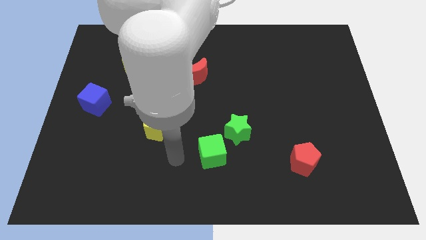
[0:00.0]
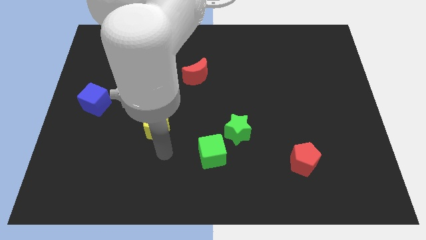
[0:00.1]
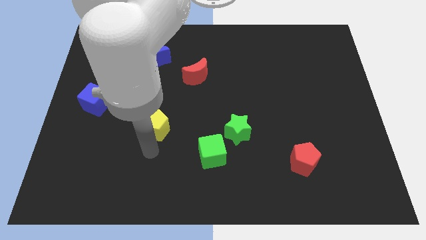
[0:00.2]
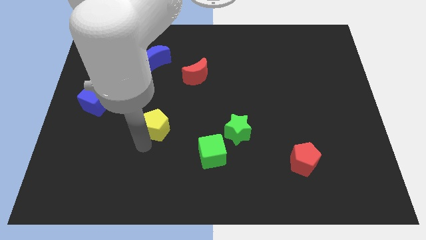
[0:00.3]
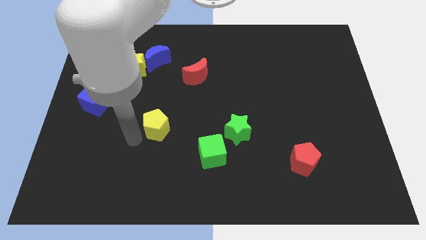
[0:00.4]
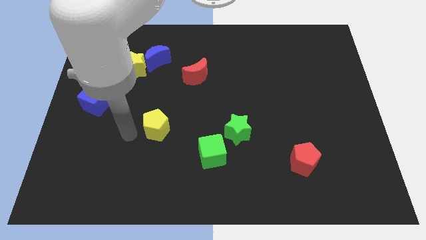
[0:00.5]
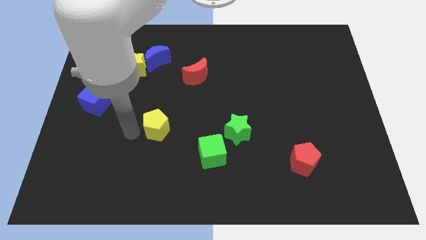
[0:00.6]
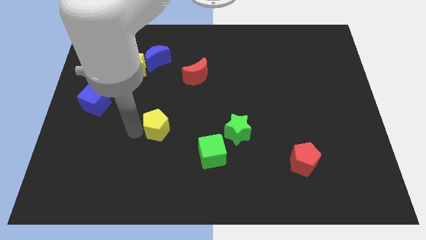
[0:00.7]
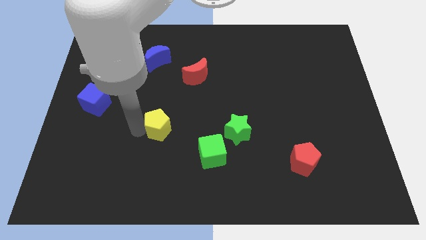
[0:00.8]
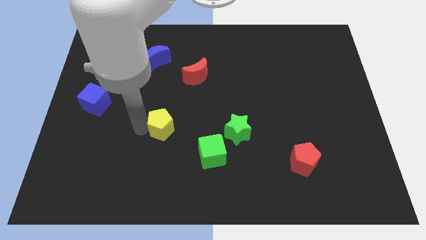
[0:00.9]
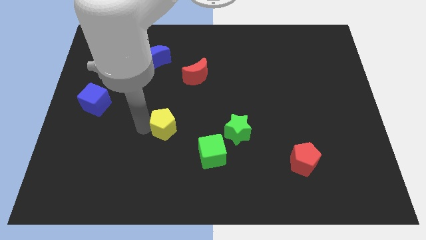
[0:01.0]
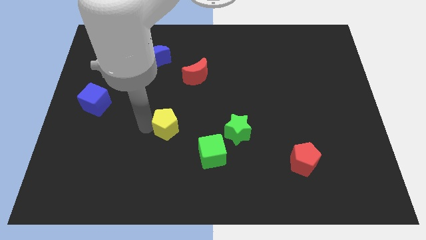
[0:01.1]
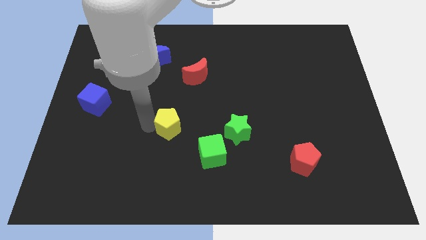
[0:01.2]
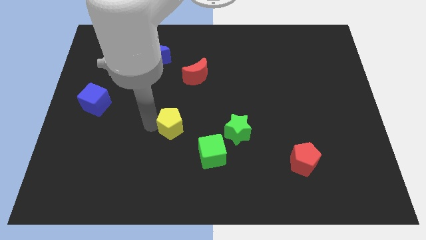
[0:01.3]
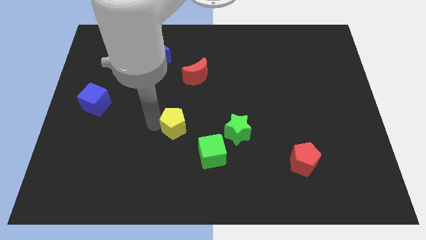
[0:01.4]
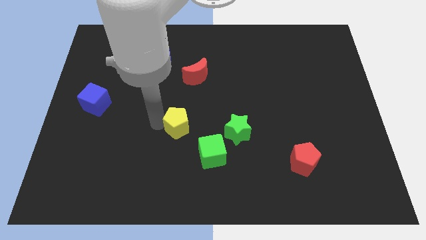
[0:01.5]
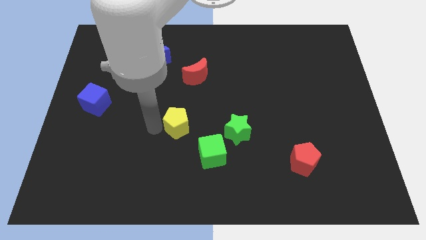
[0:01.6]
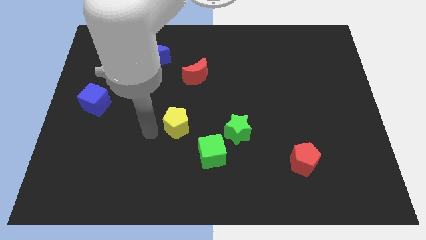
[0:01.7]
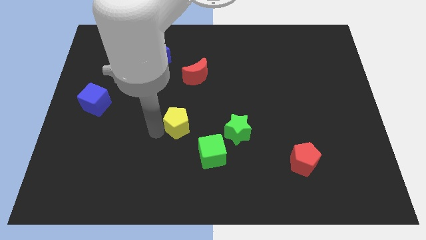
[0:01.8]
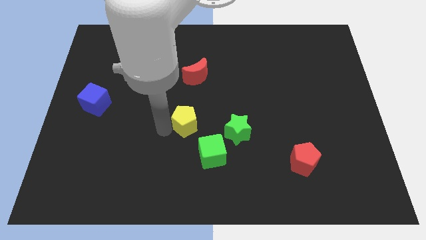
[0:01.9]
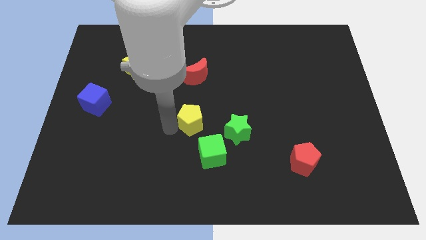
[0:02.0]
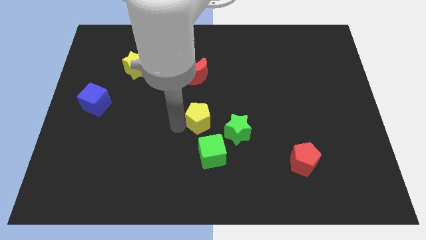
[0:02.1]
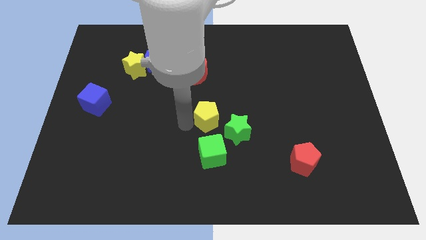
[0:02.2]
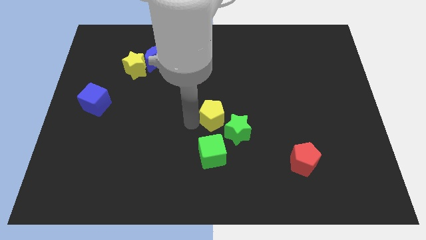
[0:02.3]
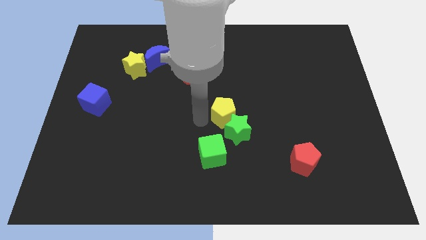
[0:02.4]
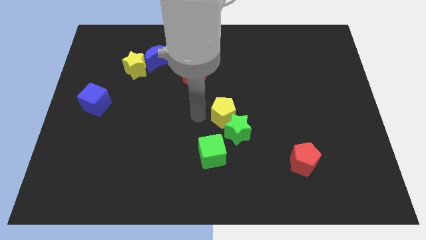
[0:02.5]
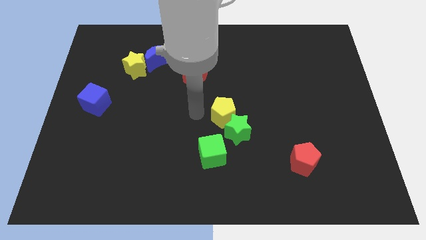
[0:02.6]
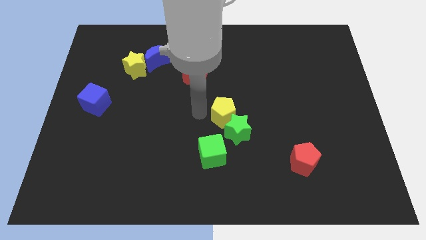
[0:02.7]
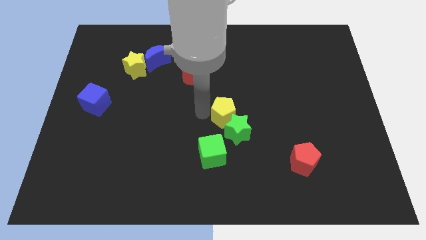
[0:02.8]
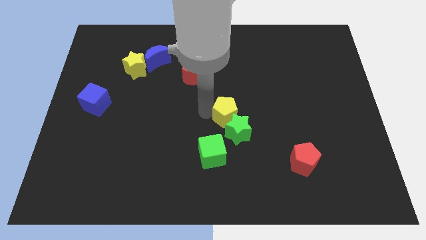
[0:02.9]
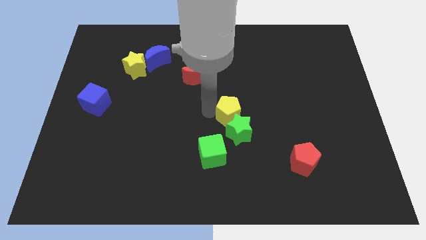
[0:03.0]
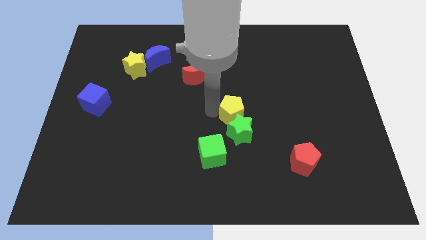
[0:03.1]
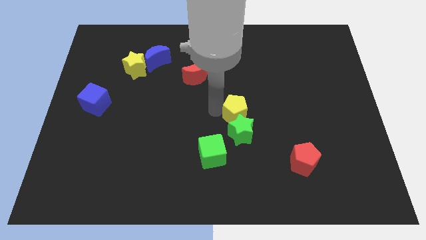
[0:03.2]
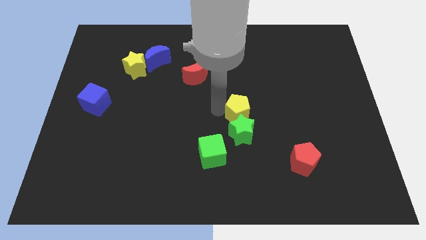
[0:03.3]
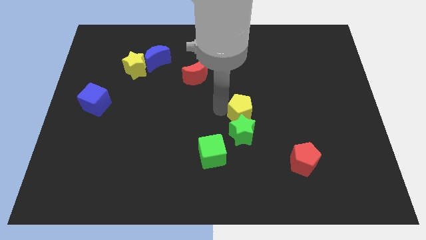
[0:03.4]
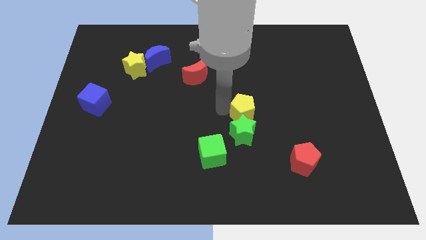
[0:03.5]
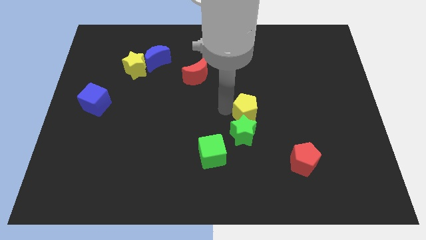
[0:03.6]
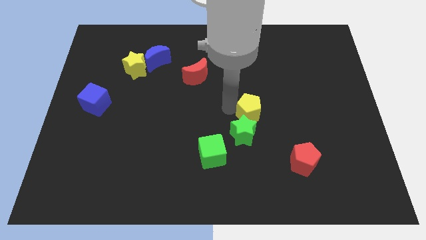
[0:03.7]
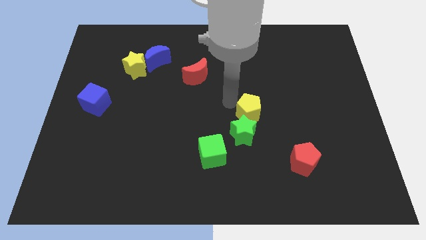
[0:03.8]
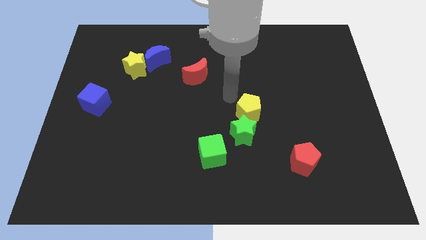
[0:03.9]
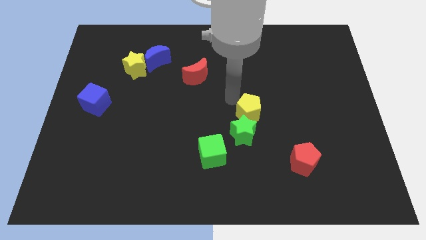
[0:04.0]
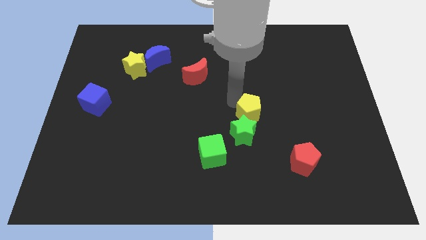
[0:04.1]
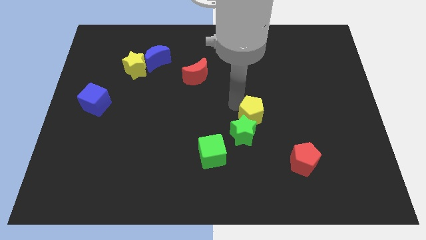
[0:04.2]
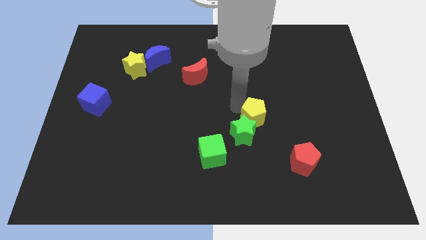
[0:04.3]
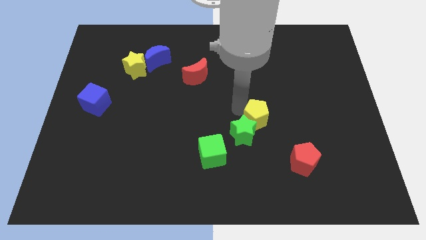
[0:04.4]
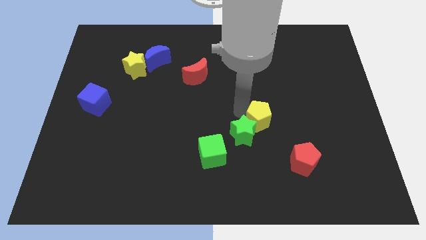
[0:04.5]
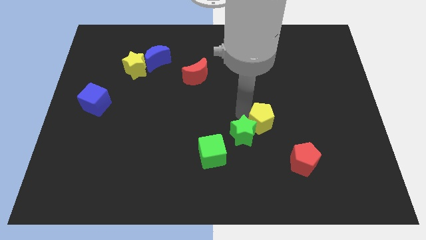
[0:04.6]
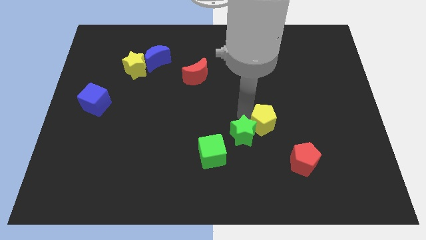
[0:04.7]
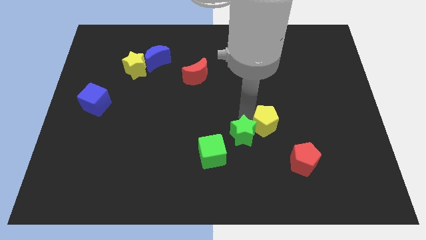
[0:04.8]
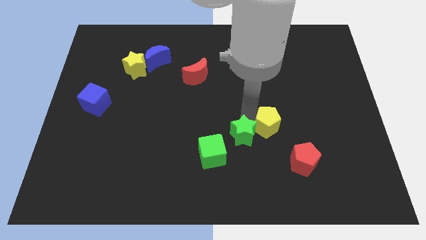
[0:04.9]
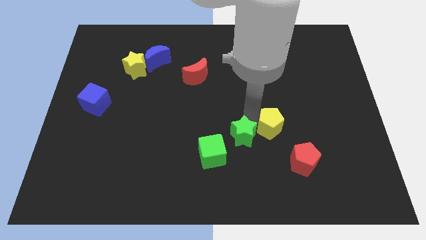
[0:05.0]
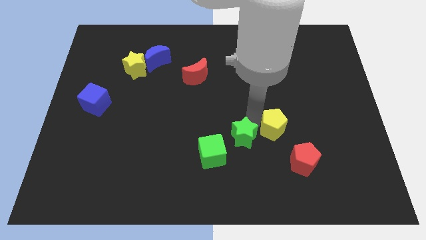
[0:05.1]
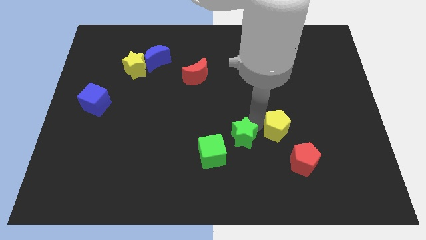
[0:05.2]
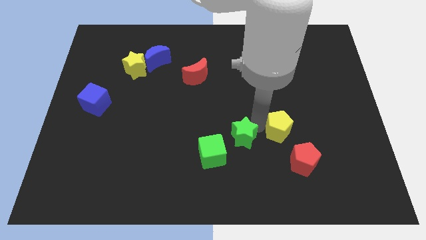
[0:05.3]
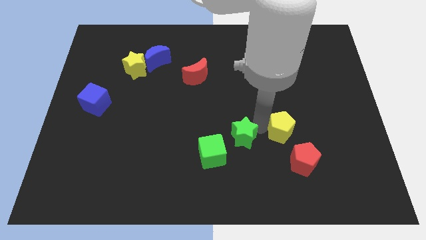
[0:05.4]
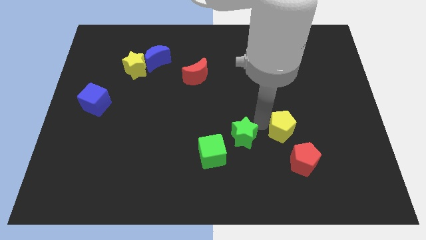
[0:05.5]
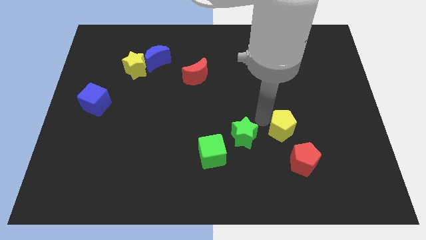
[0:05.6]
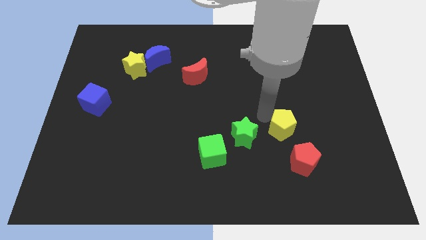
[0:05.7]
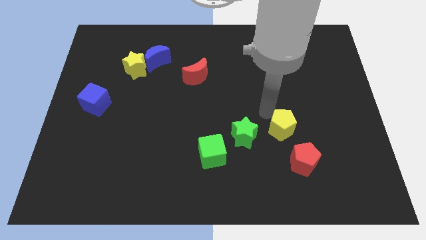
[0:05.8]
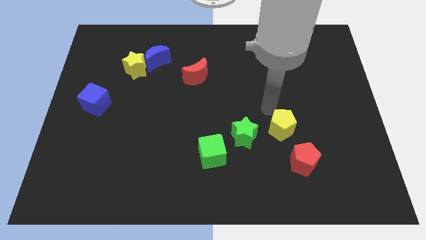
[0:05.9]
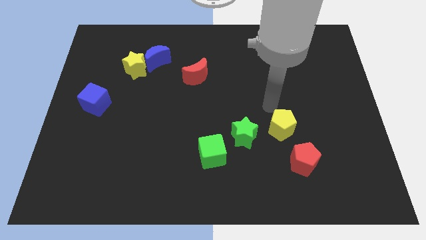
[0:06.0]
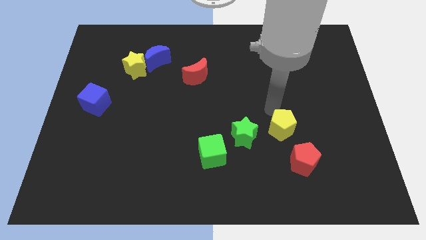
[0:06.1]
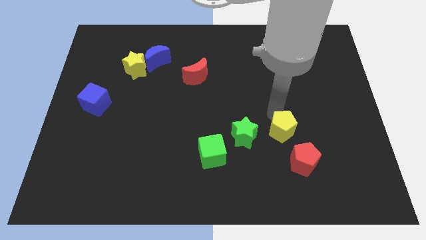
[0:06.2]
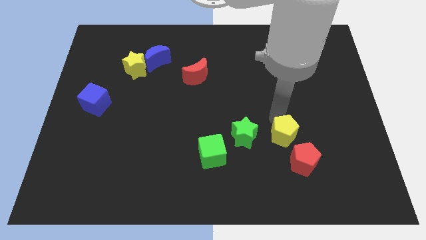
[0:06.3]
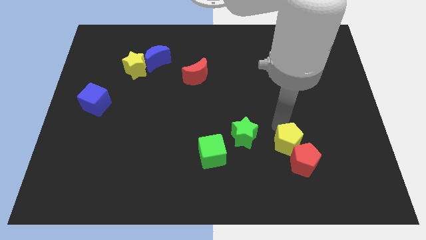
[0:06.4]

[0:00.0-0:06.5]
slide the yellow pentagon close to the red pentagon
